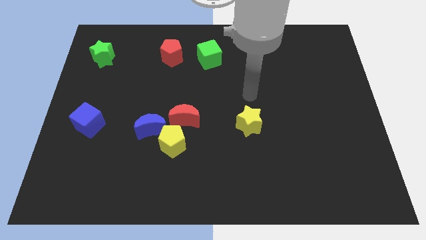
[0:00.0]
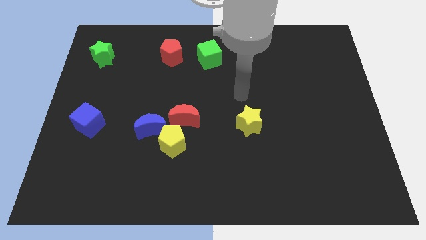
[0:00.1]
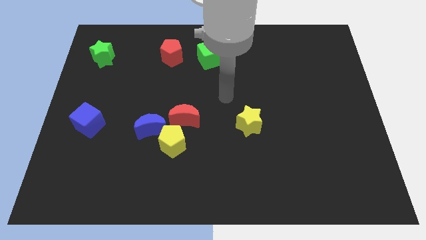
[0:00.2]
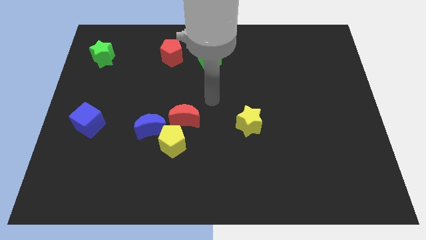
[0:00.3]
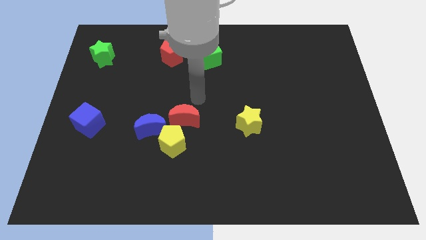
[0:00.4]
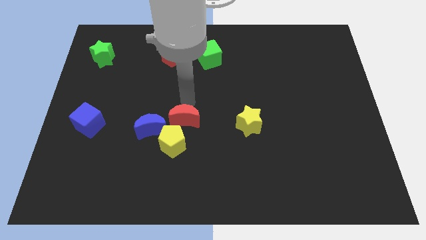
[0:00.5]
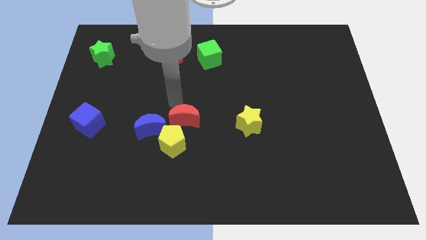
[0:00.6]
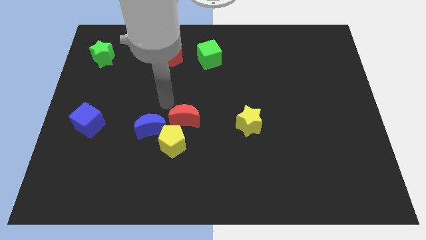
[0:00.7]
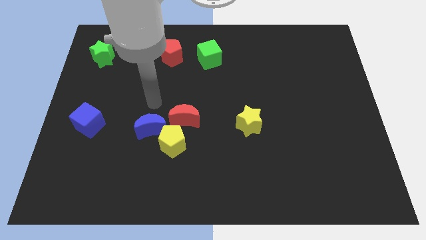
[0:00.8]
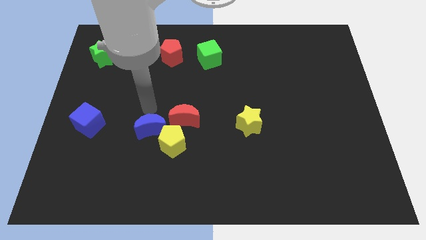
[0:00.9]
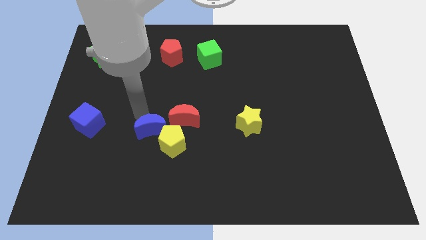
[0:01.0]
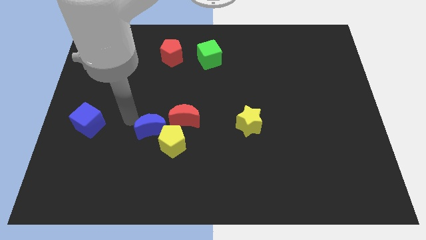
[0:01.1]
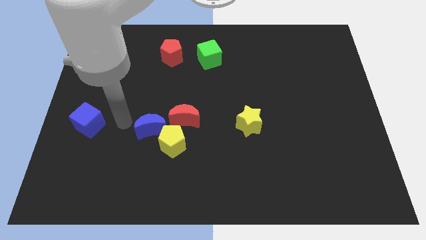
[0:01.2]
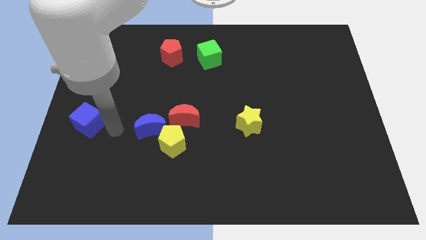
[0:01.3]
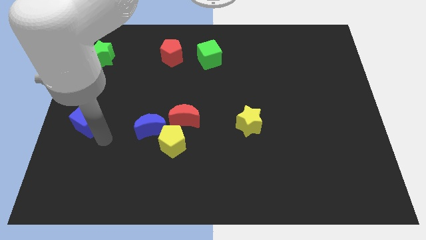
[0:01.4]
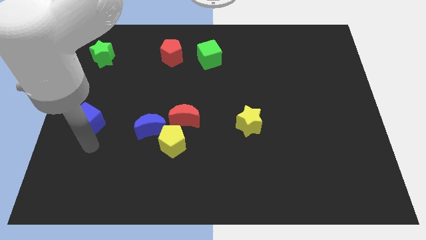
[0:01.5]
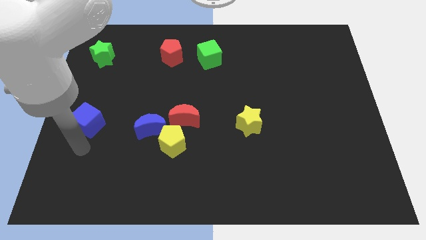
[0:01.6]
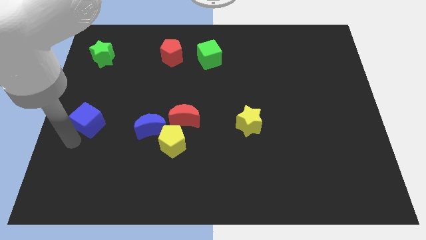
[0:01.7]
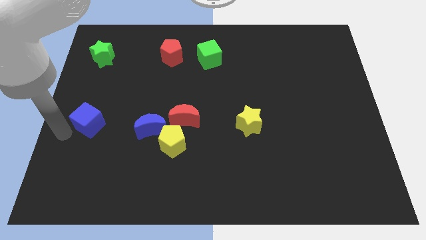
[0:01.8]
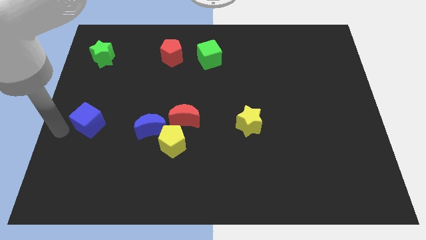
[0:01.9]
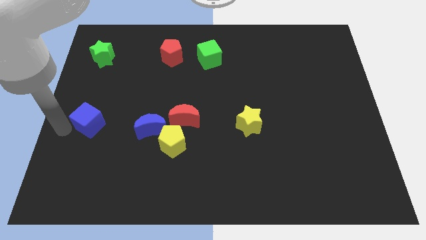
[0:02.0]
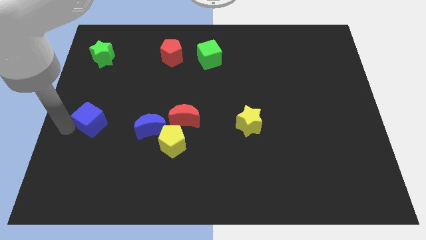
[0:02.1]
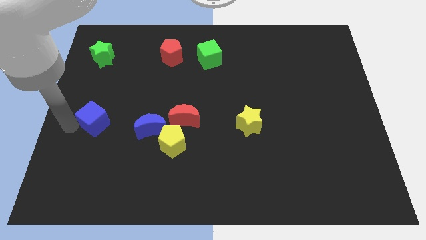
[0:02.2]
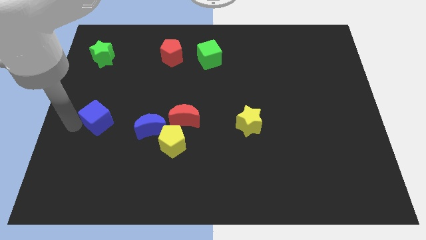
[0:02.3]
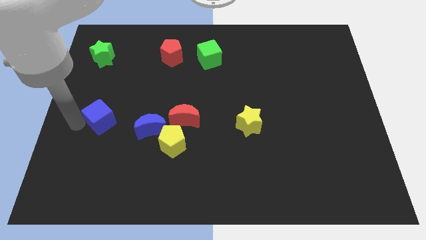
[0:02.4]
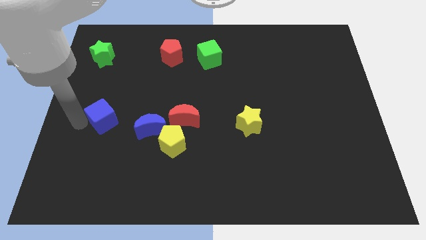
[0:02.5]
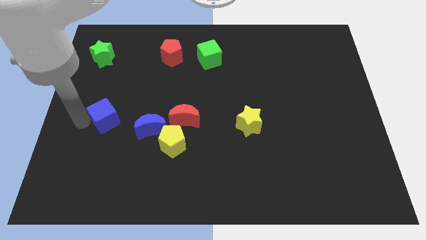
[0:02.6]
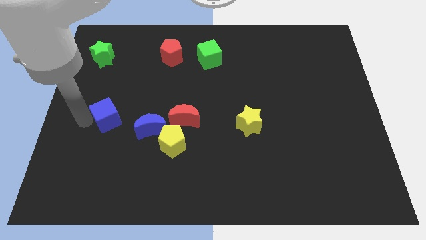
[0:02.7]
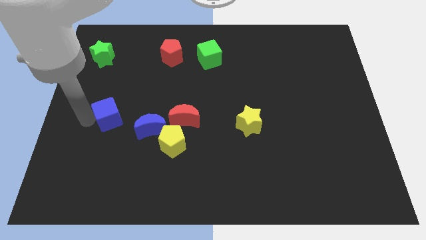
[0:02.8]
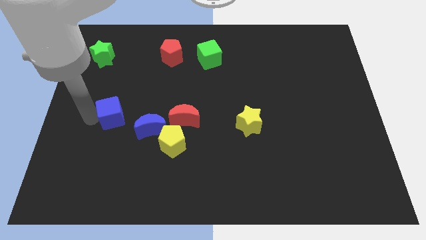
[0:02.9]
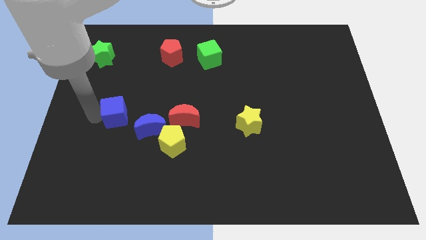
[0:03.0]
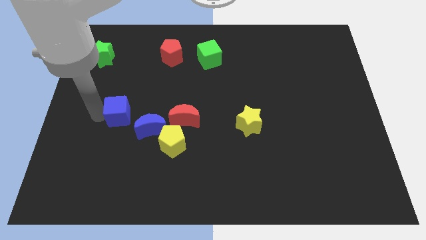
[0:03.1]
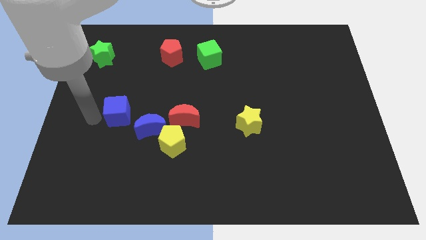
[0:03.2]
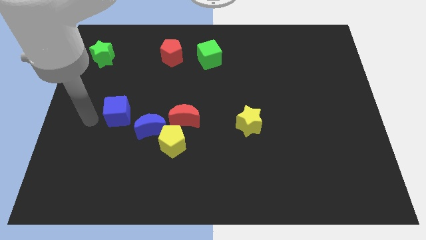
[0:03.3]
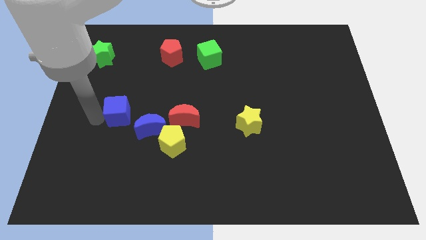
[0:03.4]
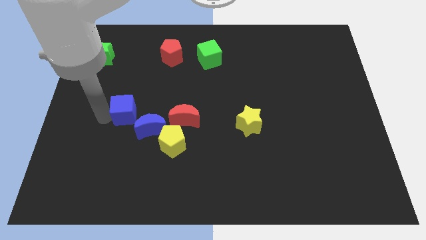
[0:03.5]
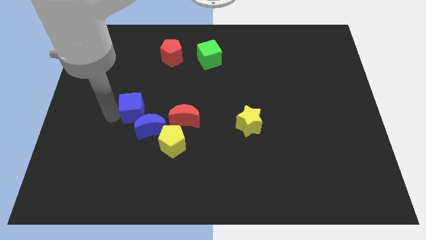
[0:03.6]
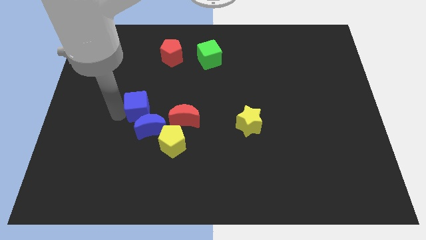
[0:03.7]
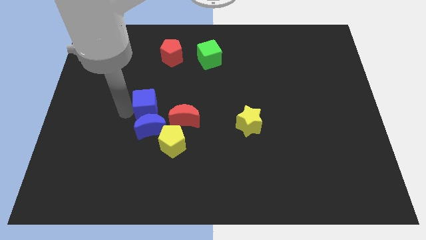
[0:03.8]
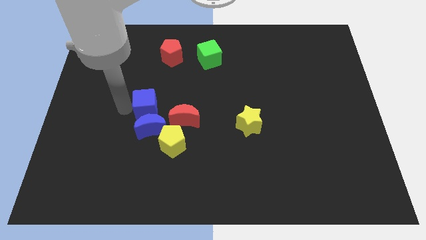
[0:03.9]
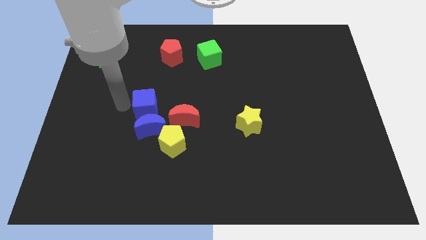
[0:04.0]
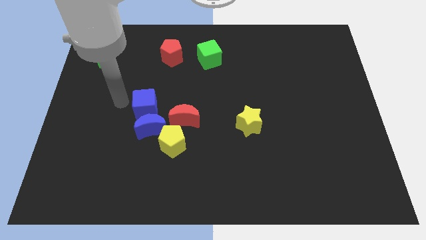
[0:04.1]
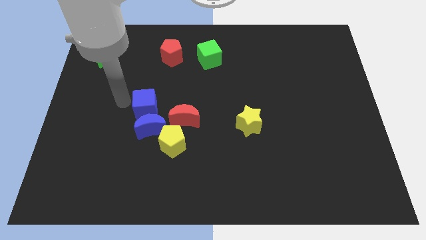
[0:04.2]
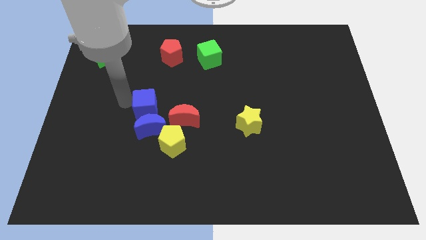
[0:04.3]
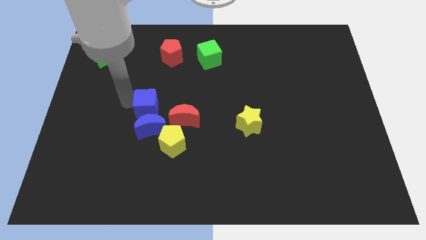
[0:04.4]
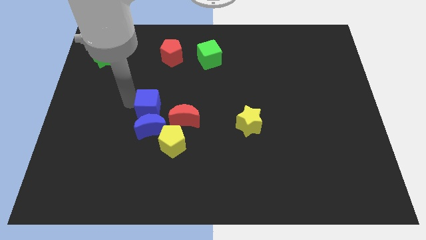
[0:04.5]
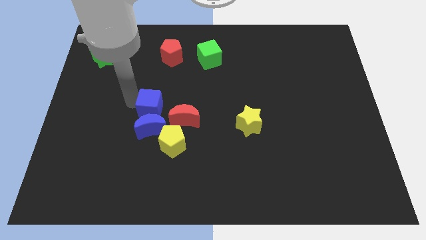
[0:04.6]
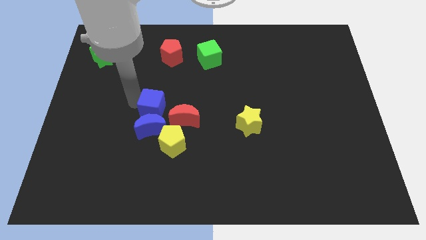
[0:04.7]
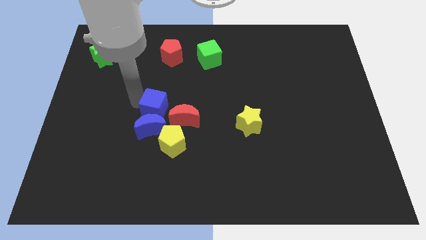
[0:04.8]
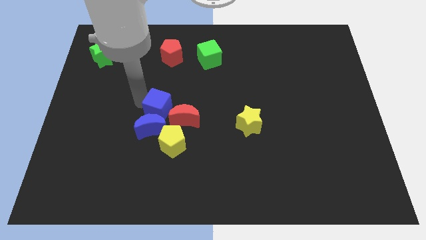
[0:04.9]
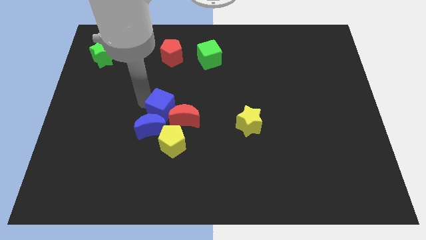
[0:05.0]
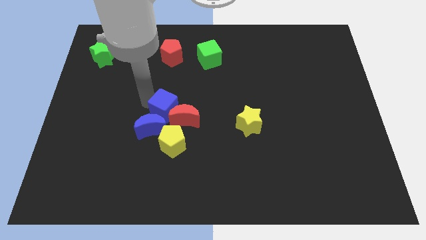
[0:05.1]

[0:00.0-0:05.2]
move the blue cube close to the red moon

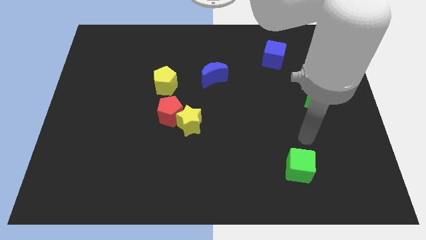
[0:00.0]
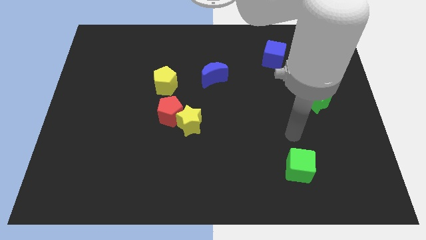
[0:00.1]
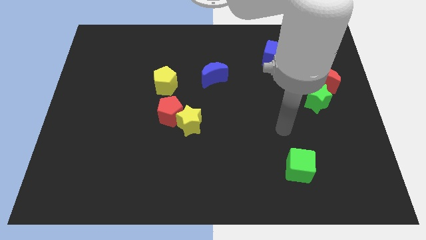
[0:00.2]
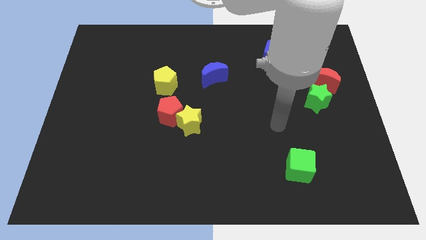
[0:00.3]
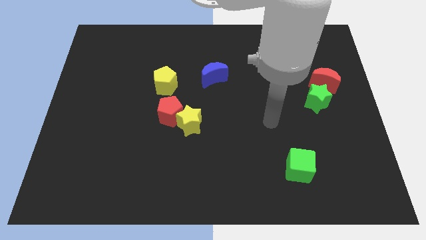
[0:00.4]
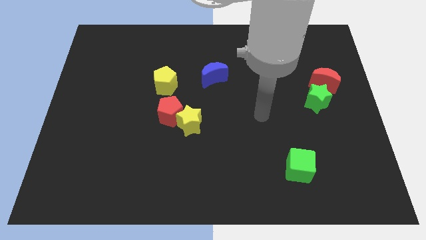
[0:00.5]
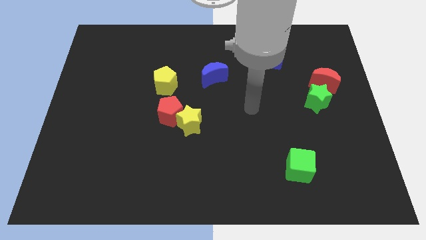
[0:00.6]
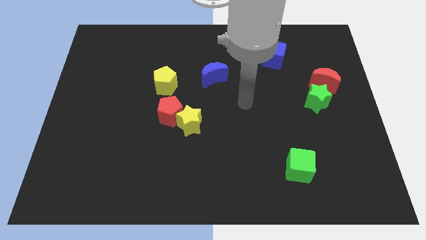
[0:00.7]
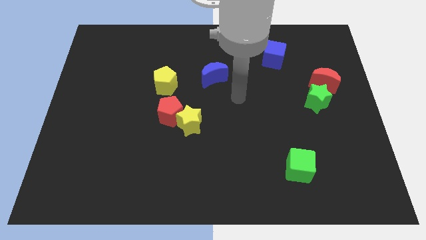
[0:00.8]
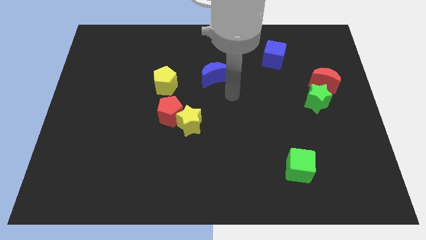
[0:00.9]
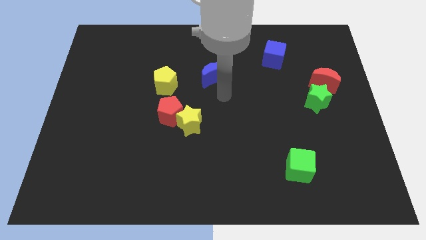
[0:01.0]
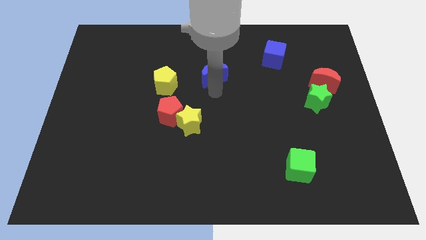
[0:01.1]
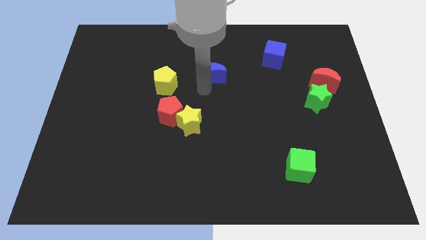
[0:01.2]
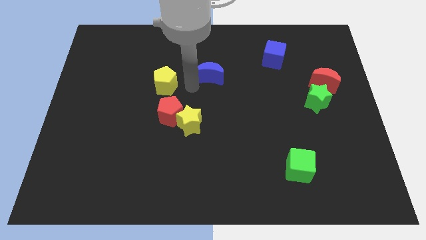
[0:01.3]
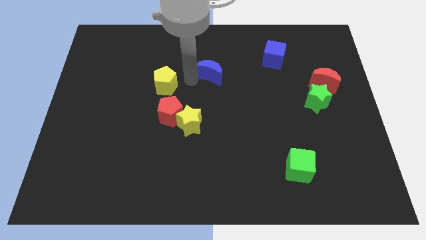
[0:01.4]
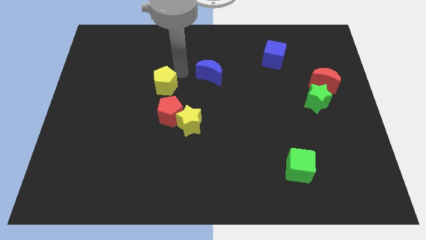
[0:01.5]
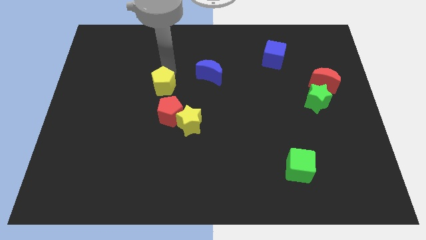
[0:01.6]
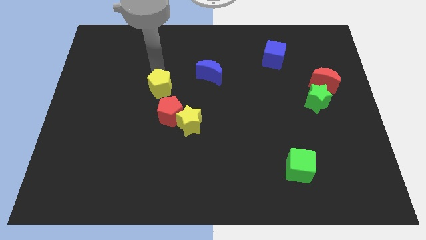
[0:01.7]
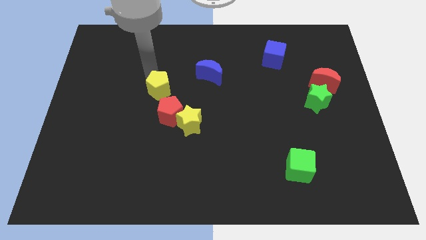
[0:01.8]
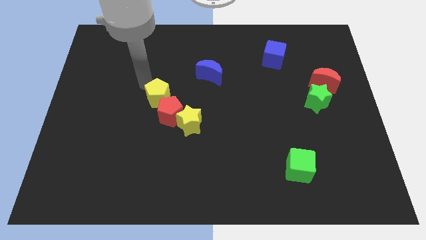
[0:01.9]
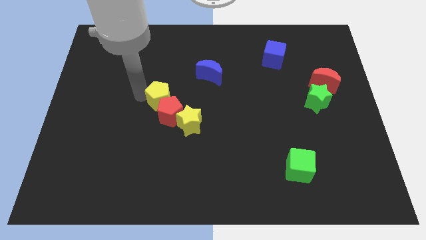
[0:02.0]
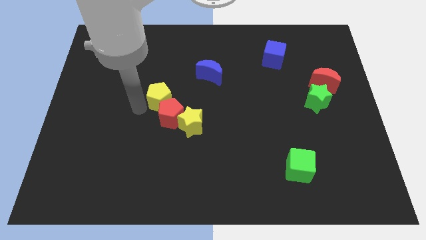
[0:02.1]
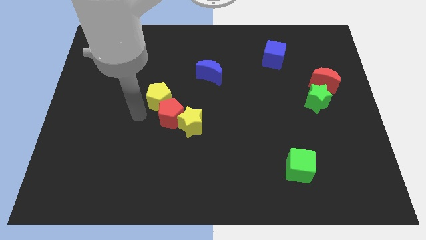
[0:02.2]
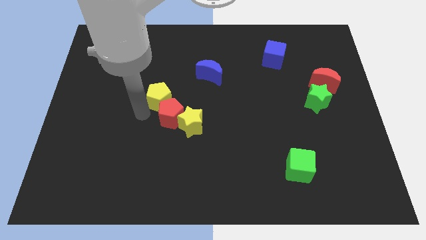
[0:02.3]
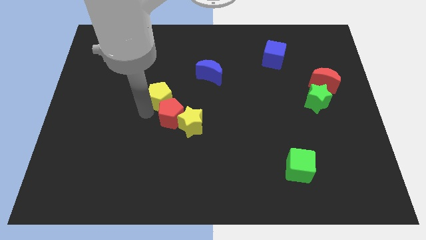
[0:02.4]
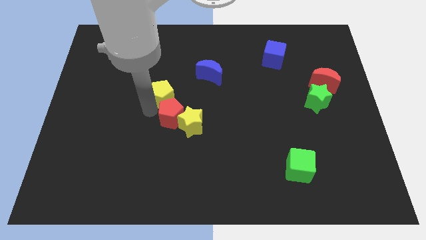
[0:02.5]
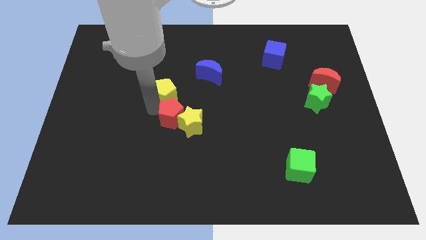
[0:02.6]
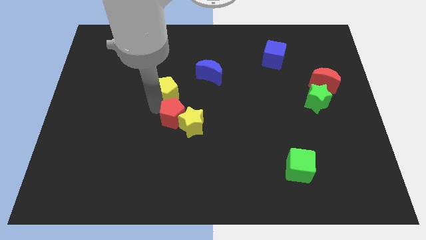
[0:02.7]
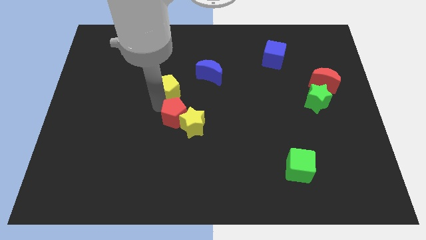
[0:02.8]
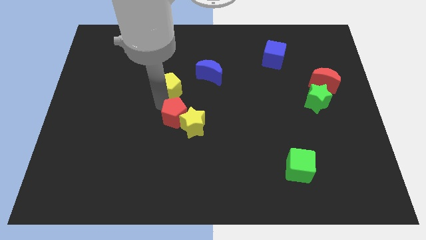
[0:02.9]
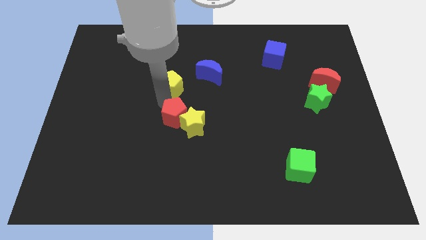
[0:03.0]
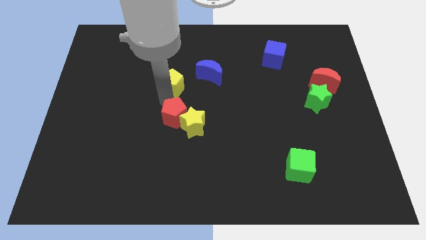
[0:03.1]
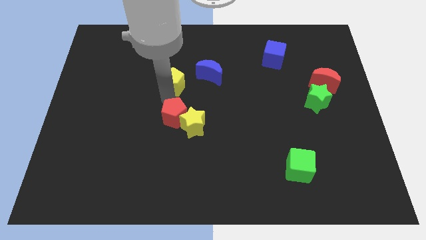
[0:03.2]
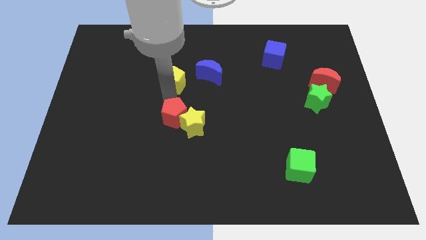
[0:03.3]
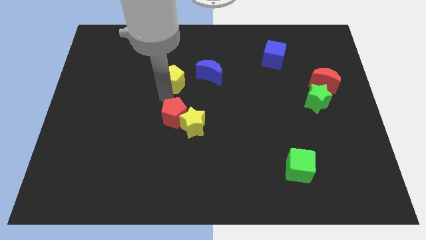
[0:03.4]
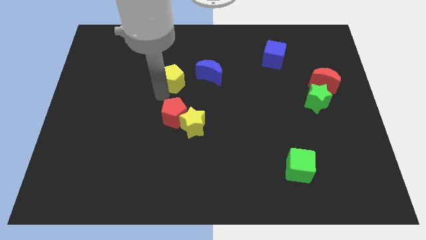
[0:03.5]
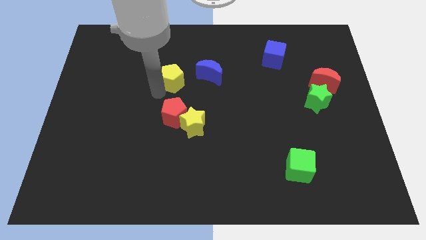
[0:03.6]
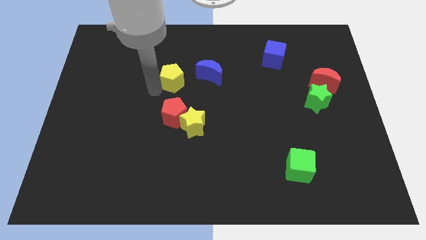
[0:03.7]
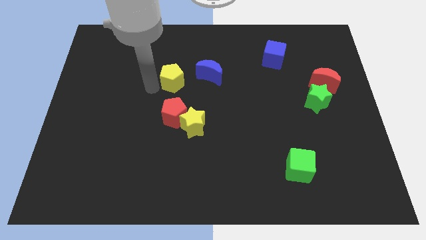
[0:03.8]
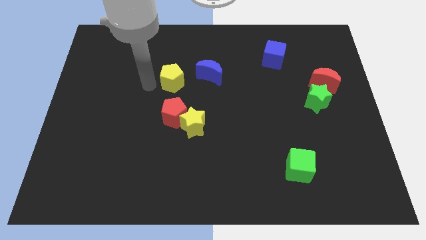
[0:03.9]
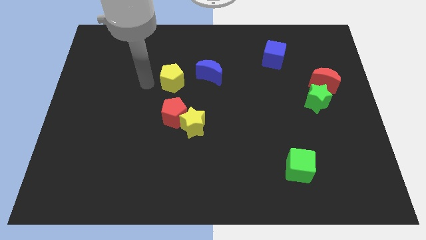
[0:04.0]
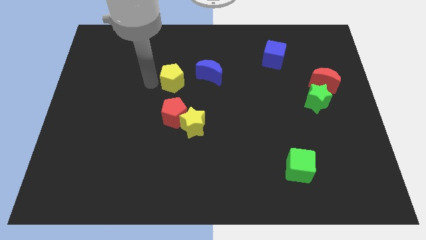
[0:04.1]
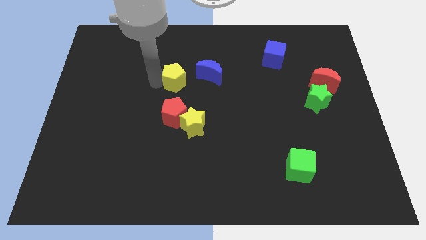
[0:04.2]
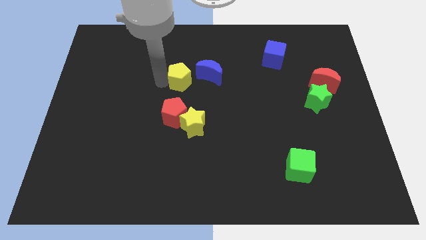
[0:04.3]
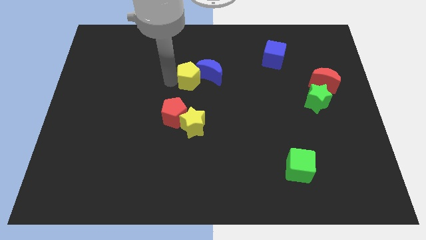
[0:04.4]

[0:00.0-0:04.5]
move the yellow pentagon towards the blue moon
